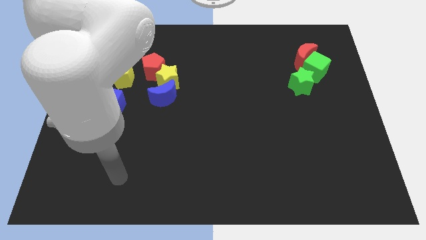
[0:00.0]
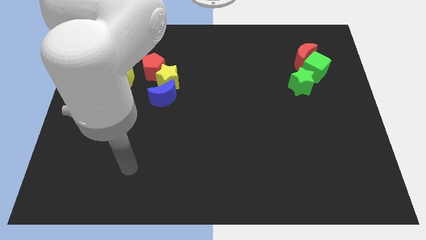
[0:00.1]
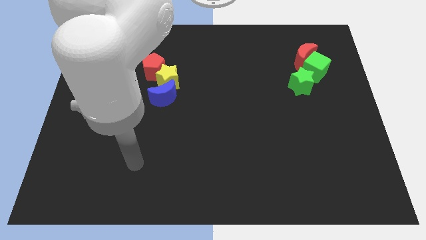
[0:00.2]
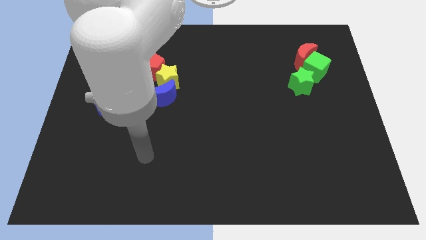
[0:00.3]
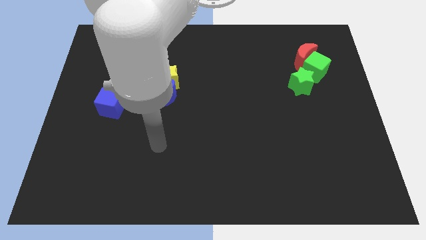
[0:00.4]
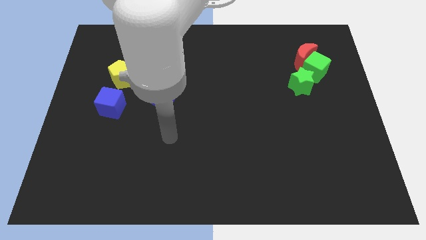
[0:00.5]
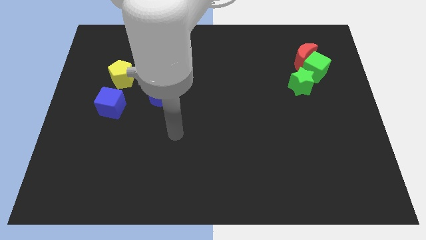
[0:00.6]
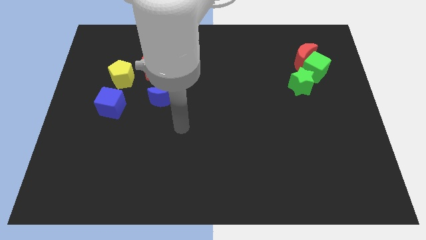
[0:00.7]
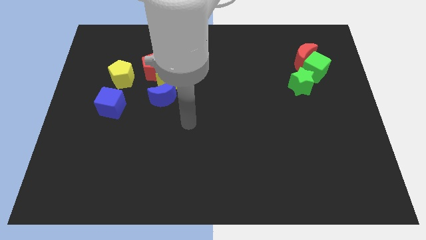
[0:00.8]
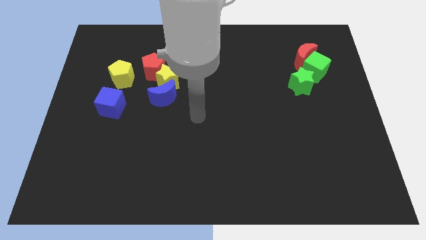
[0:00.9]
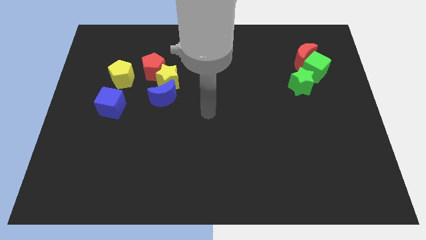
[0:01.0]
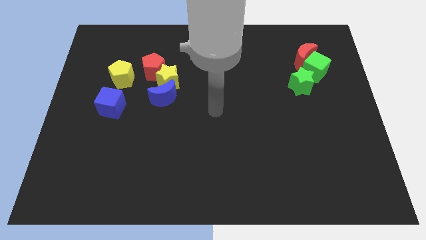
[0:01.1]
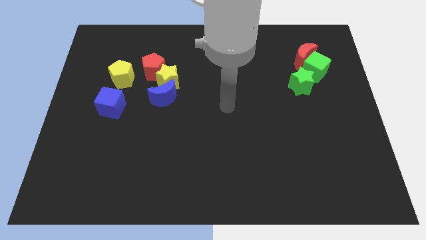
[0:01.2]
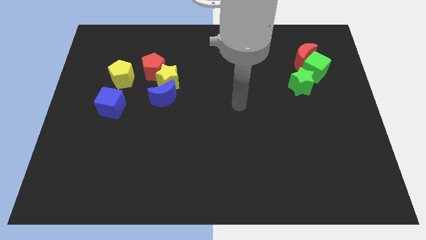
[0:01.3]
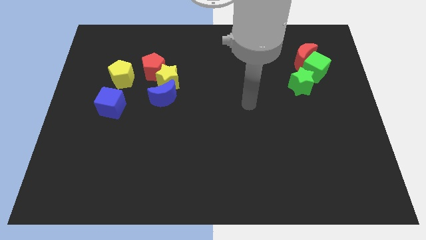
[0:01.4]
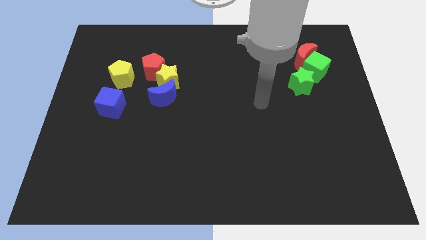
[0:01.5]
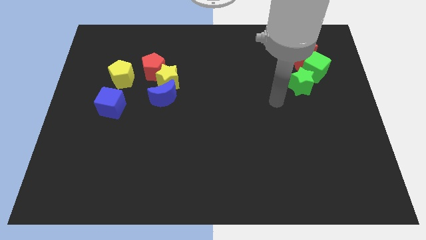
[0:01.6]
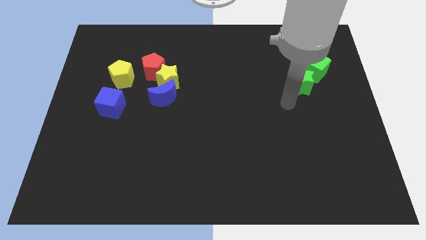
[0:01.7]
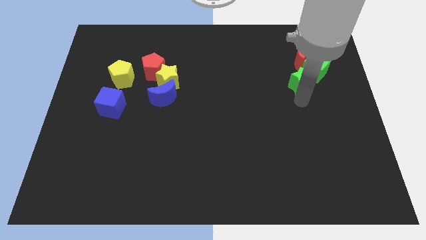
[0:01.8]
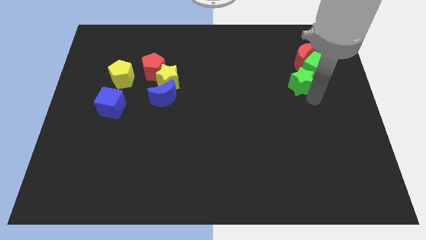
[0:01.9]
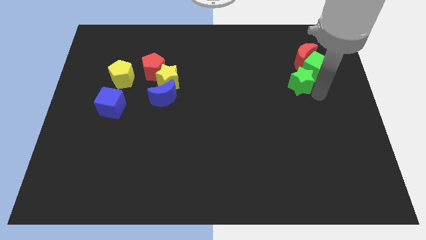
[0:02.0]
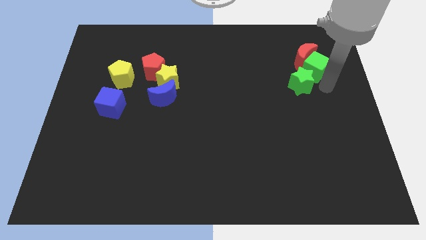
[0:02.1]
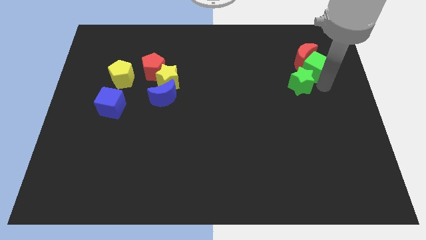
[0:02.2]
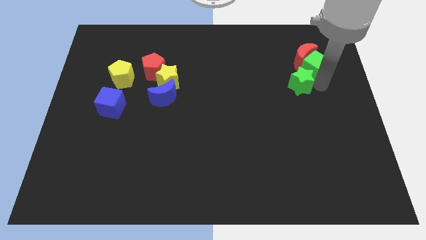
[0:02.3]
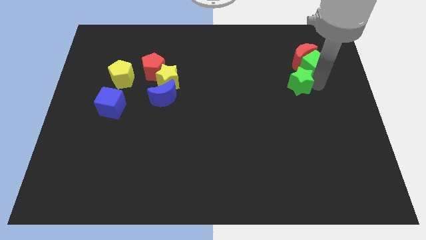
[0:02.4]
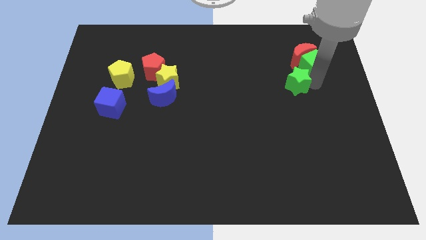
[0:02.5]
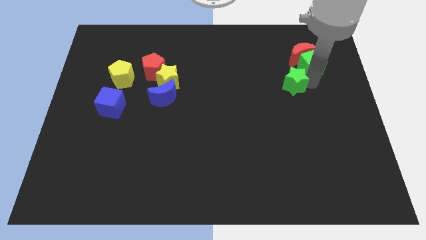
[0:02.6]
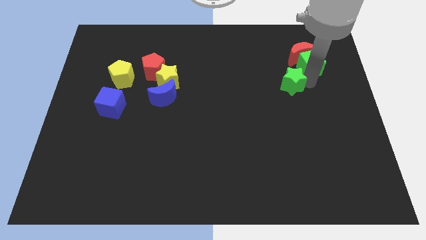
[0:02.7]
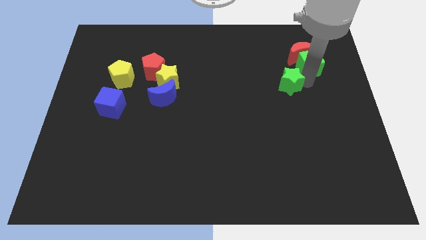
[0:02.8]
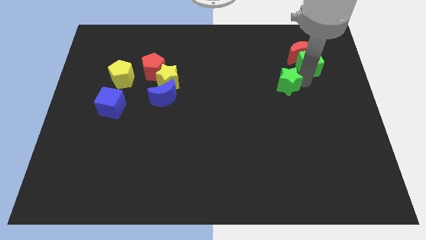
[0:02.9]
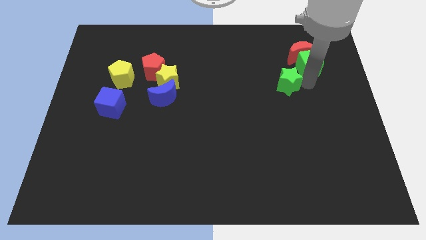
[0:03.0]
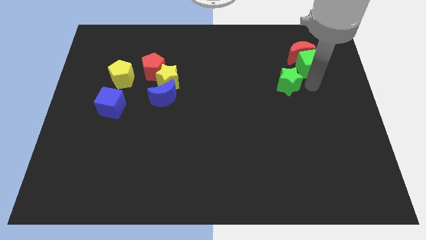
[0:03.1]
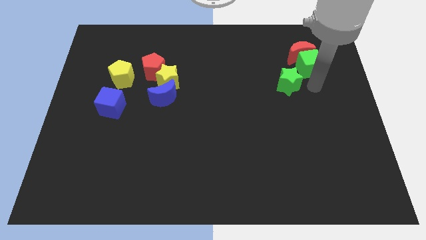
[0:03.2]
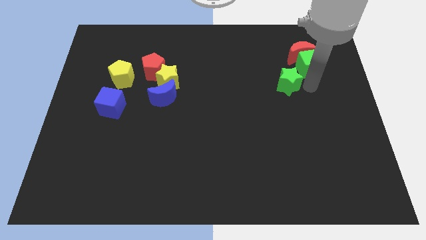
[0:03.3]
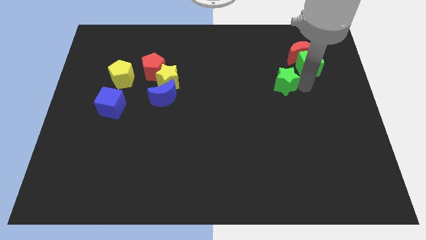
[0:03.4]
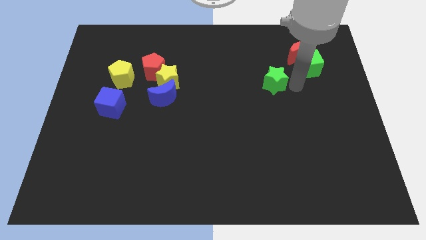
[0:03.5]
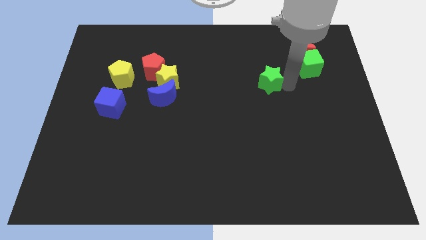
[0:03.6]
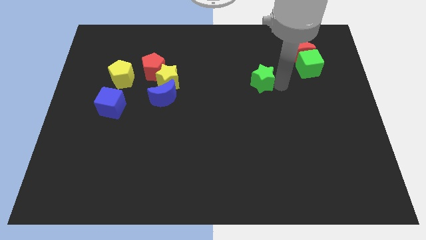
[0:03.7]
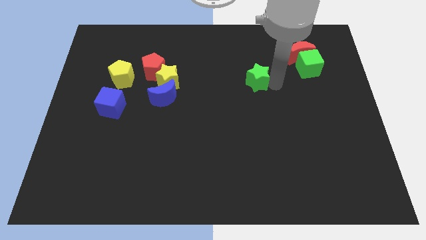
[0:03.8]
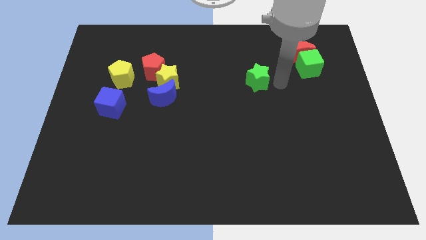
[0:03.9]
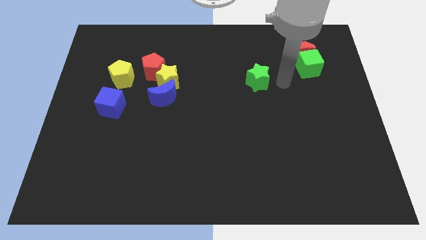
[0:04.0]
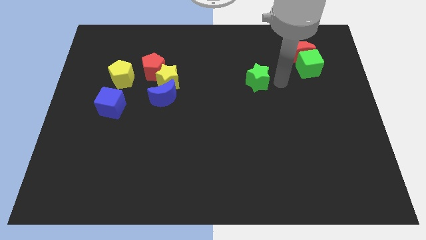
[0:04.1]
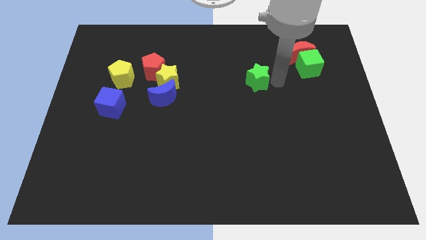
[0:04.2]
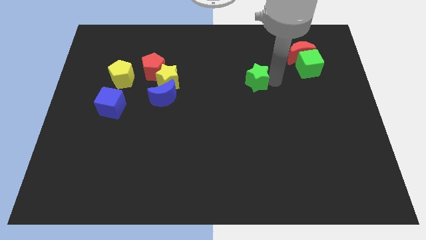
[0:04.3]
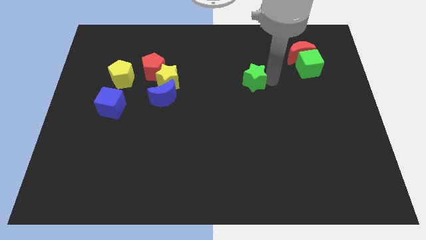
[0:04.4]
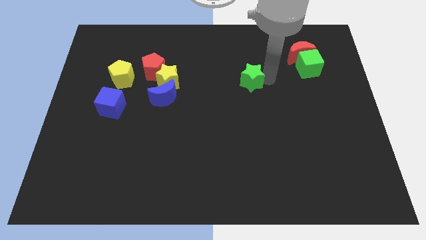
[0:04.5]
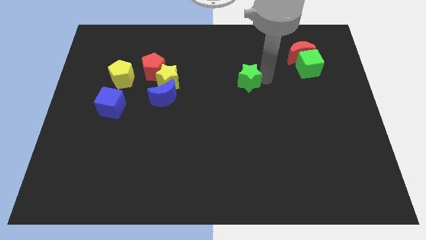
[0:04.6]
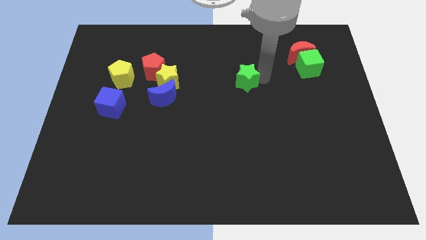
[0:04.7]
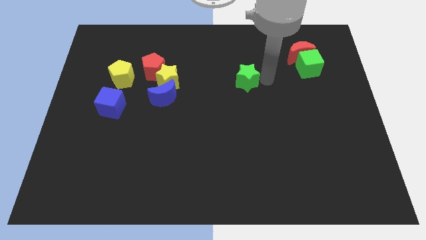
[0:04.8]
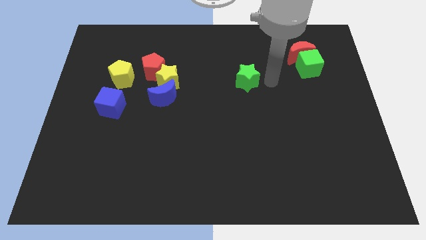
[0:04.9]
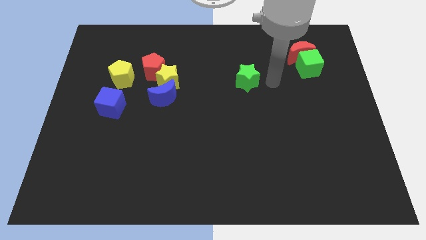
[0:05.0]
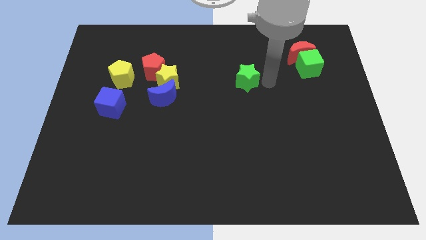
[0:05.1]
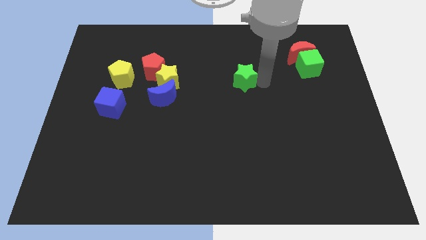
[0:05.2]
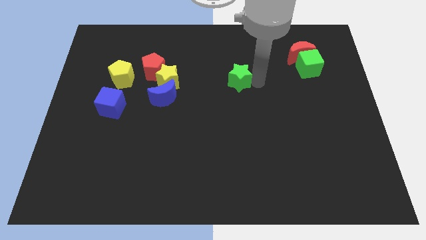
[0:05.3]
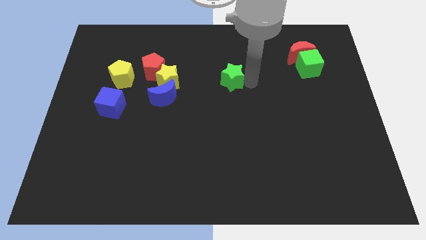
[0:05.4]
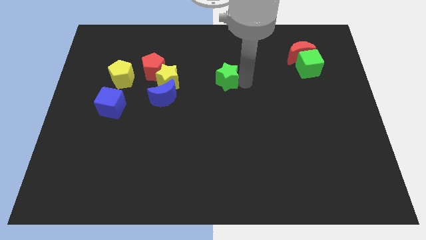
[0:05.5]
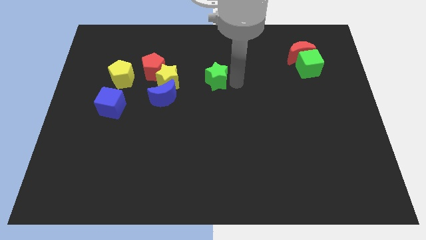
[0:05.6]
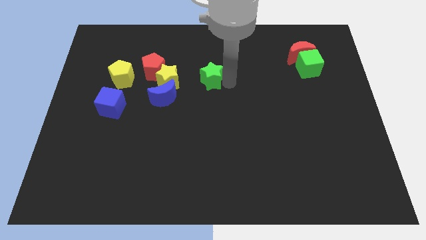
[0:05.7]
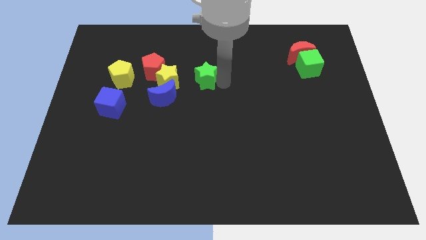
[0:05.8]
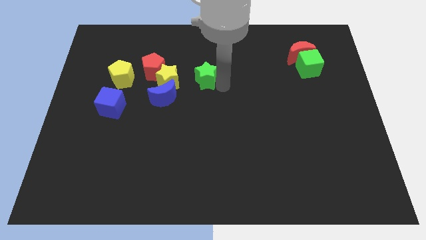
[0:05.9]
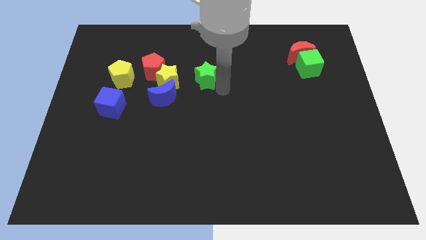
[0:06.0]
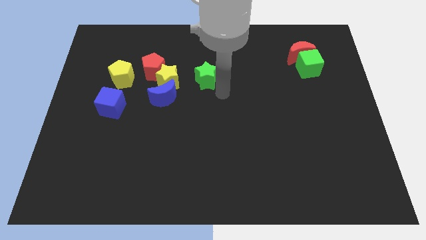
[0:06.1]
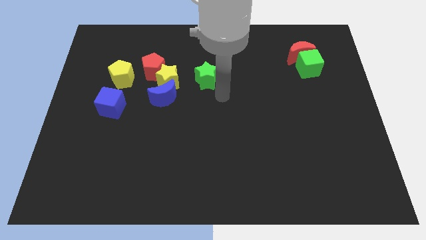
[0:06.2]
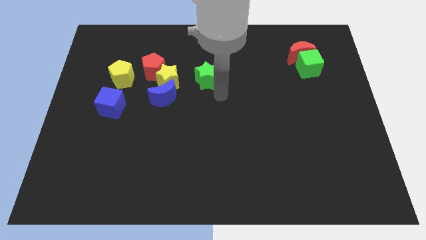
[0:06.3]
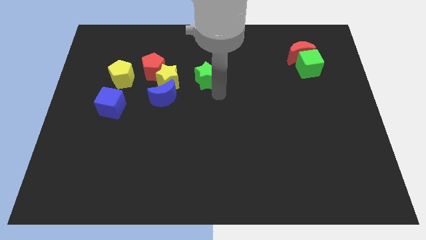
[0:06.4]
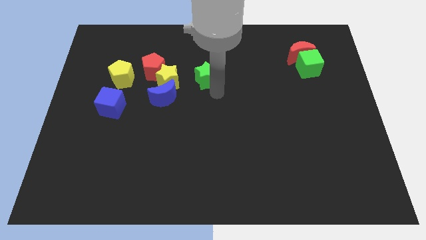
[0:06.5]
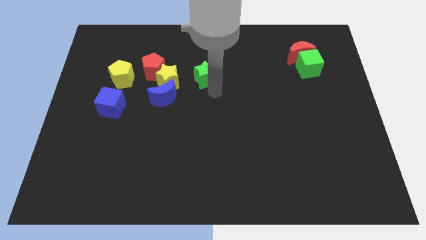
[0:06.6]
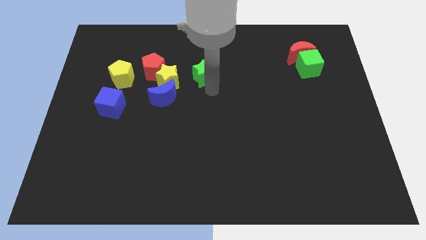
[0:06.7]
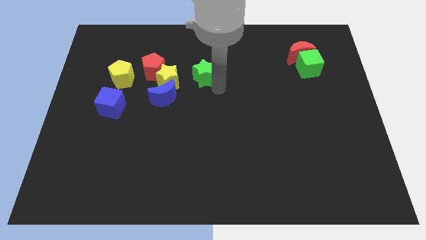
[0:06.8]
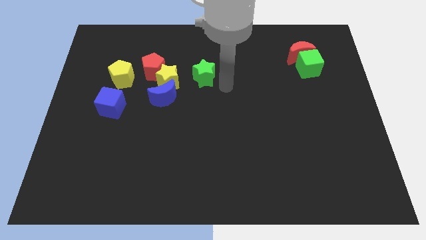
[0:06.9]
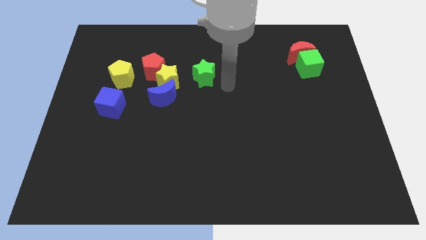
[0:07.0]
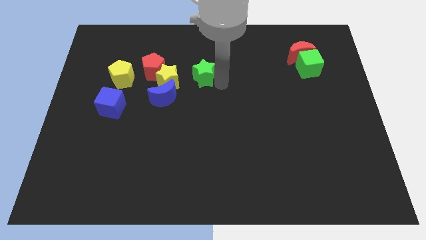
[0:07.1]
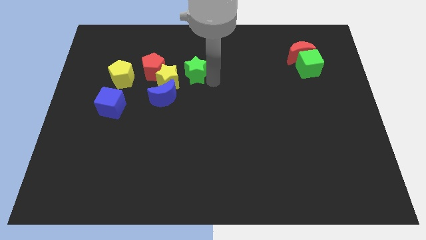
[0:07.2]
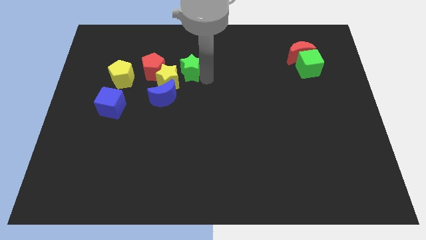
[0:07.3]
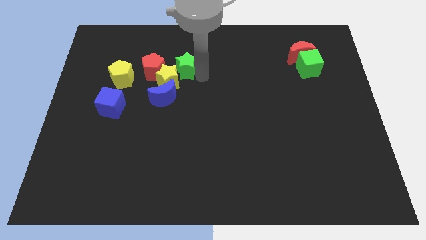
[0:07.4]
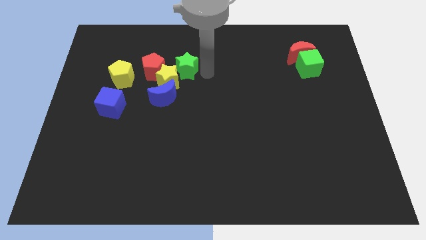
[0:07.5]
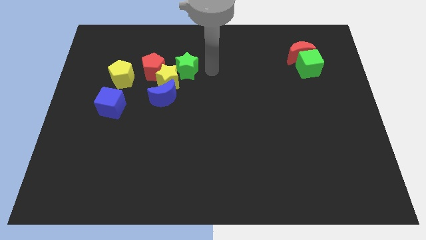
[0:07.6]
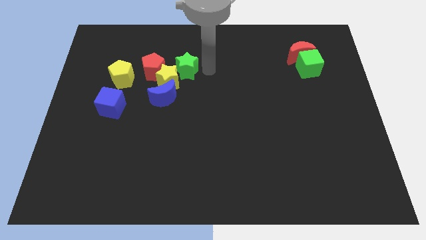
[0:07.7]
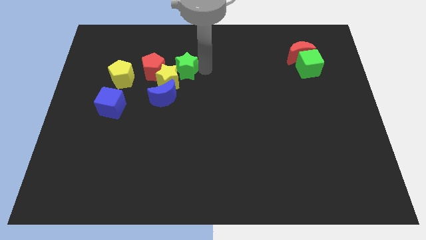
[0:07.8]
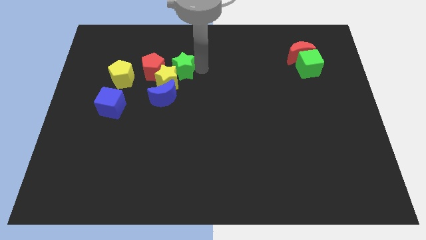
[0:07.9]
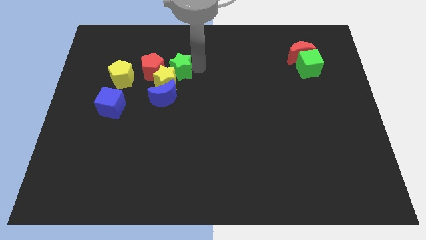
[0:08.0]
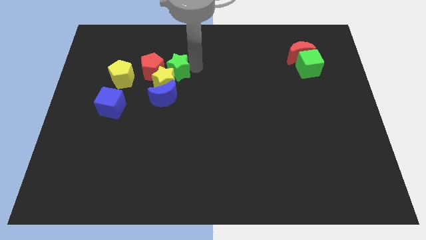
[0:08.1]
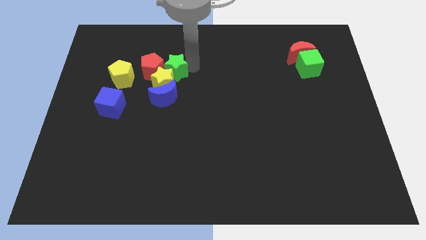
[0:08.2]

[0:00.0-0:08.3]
move the green star to the red pentagon
